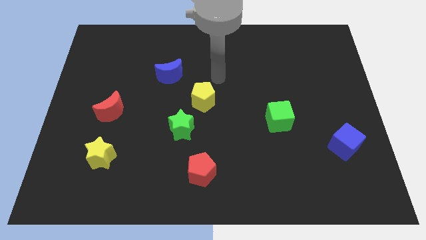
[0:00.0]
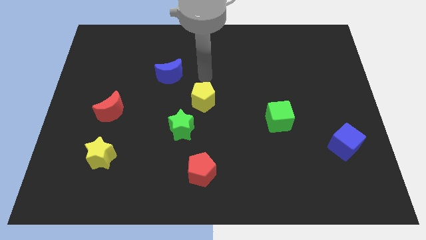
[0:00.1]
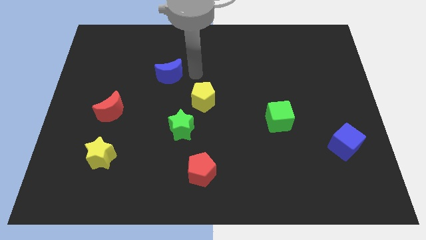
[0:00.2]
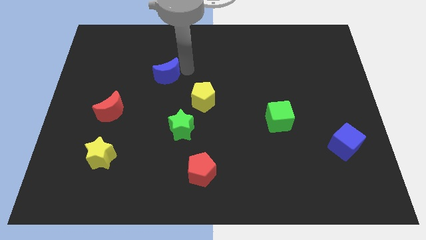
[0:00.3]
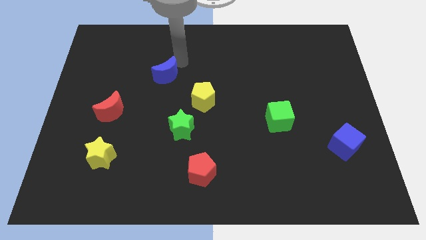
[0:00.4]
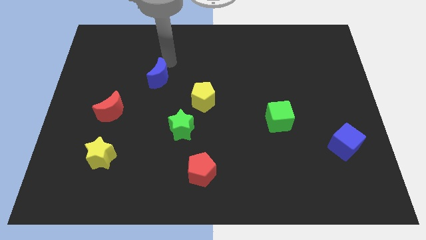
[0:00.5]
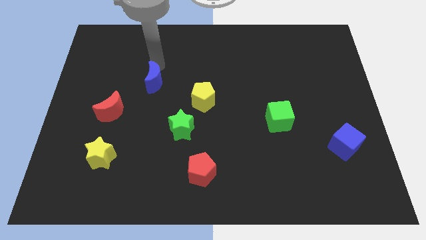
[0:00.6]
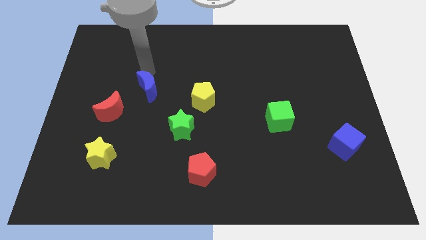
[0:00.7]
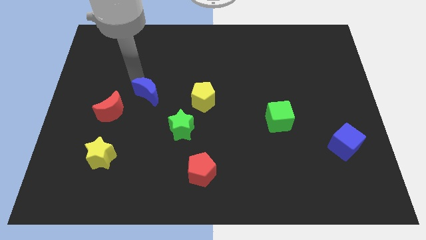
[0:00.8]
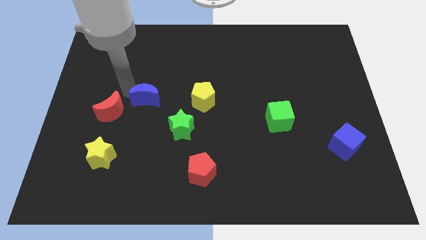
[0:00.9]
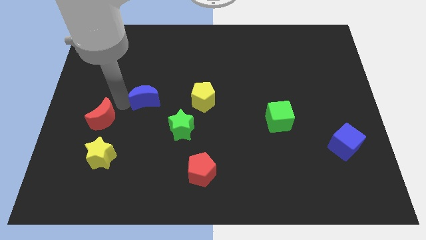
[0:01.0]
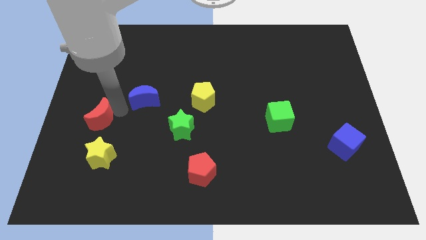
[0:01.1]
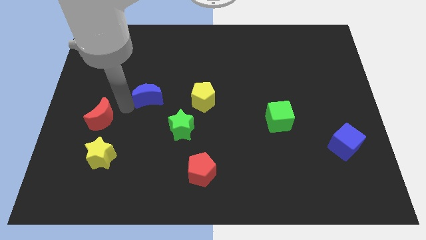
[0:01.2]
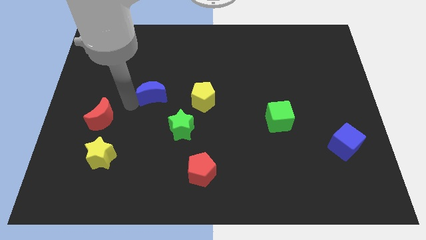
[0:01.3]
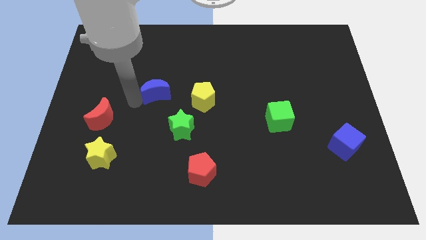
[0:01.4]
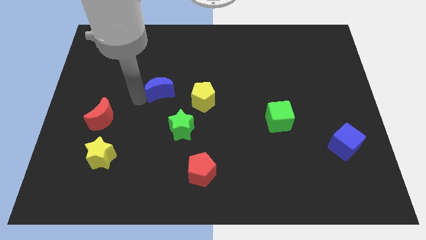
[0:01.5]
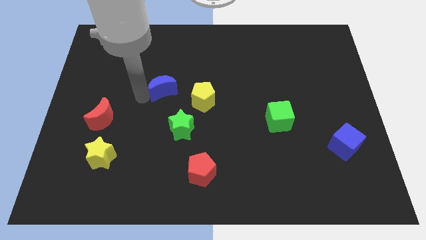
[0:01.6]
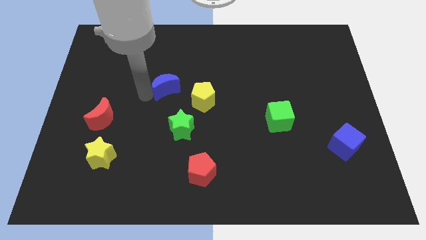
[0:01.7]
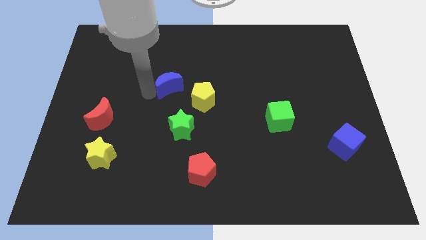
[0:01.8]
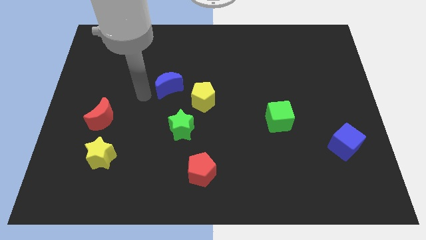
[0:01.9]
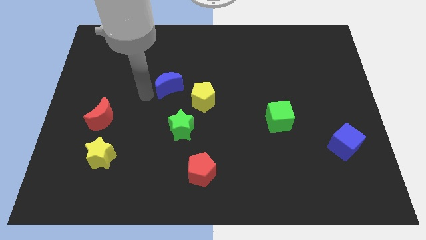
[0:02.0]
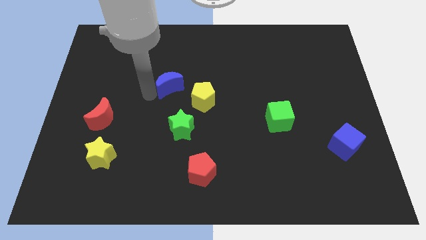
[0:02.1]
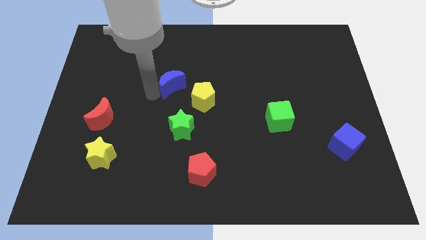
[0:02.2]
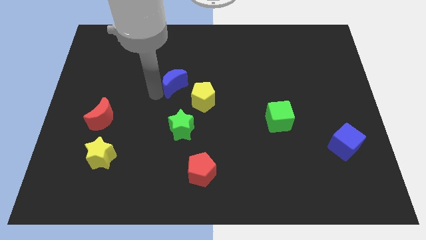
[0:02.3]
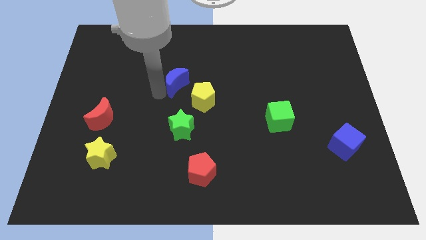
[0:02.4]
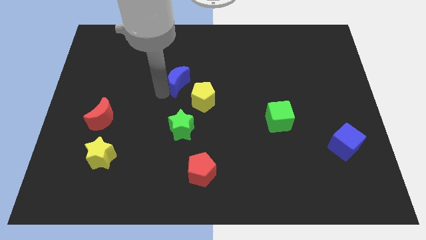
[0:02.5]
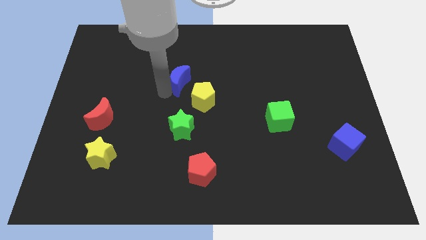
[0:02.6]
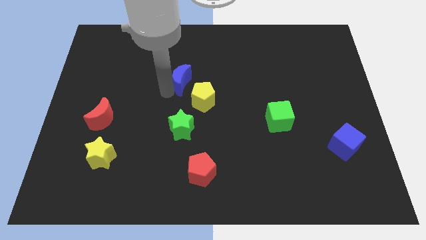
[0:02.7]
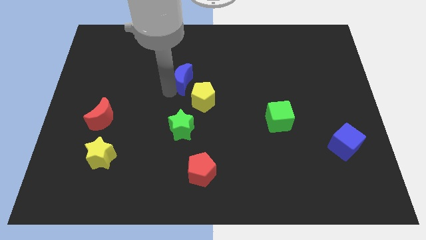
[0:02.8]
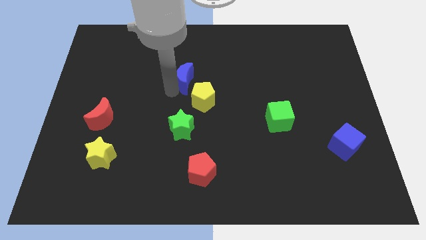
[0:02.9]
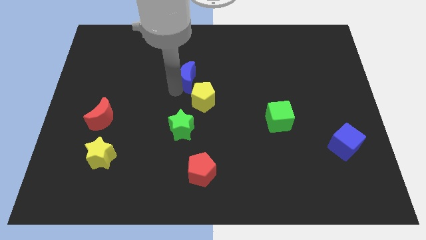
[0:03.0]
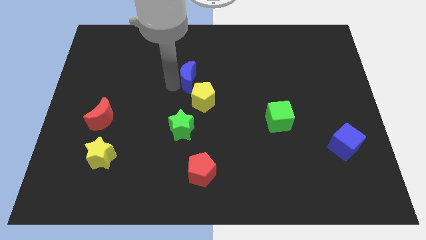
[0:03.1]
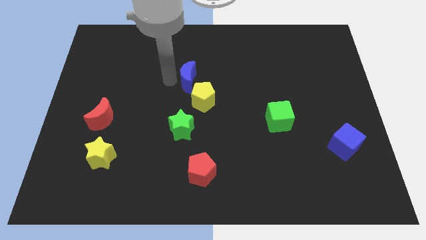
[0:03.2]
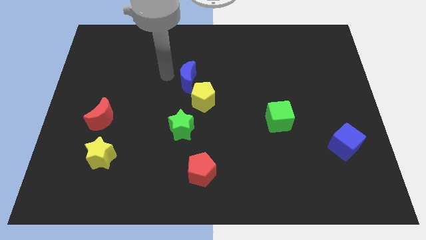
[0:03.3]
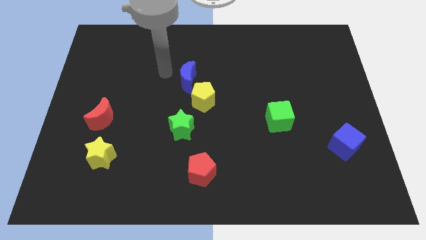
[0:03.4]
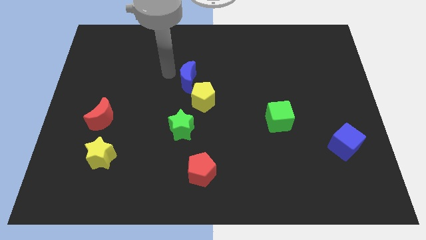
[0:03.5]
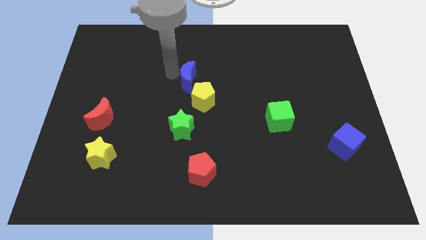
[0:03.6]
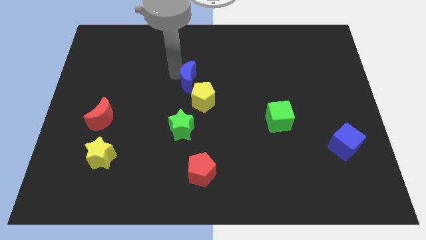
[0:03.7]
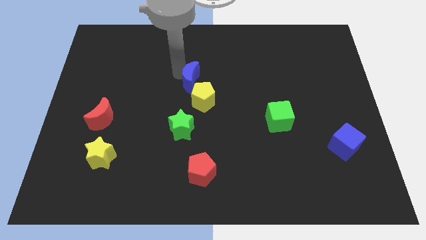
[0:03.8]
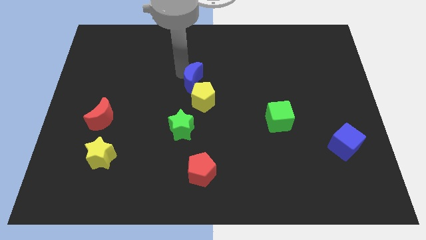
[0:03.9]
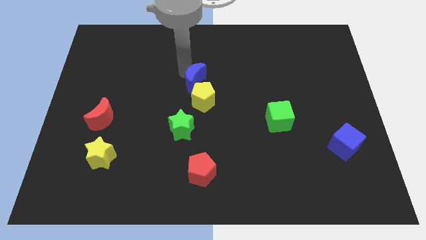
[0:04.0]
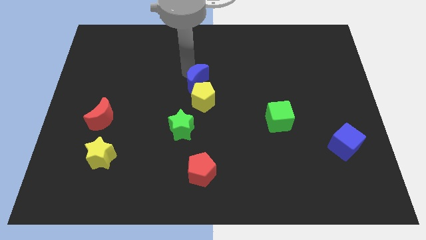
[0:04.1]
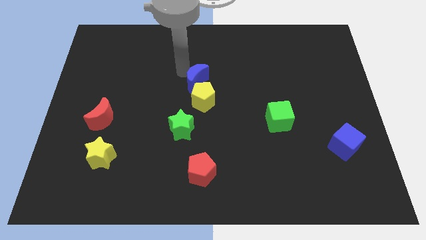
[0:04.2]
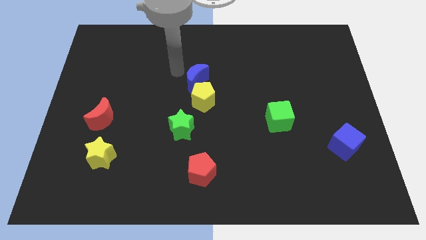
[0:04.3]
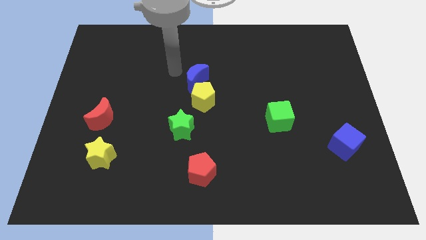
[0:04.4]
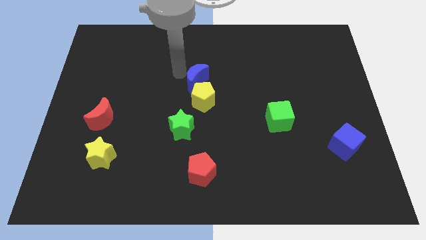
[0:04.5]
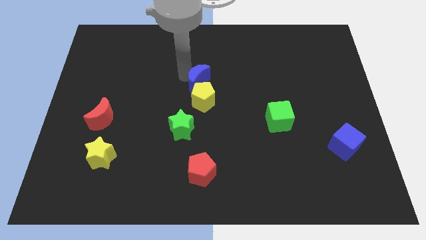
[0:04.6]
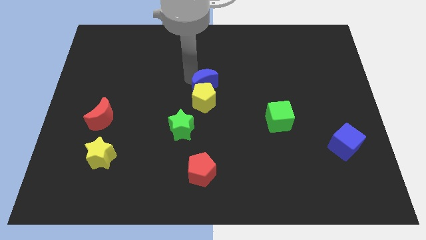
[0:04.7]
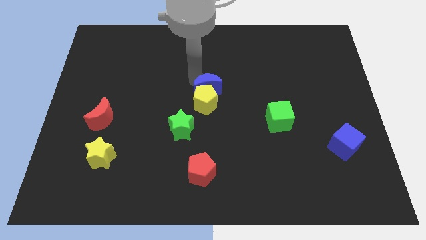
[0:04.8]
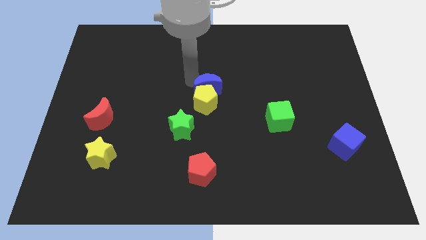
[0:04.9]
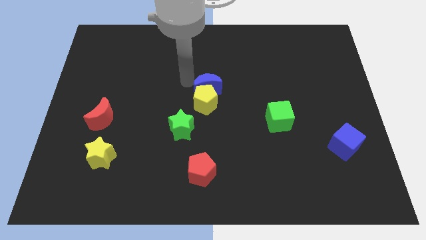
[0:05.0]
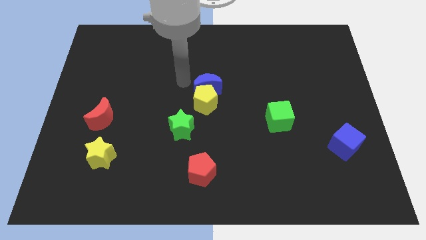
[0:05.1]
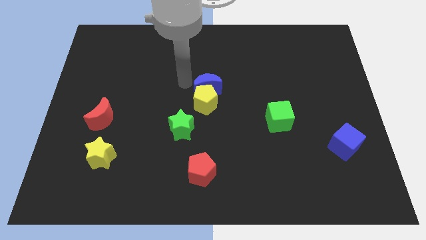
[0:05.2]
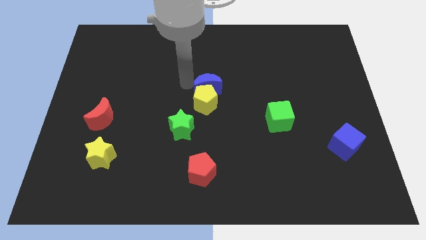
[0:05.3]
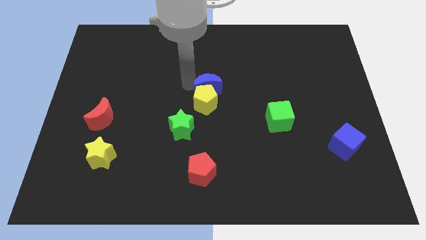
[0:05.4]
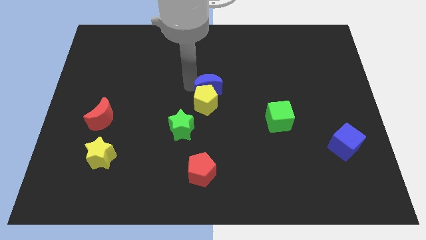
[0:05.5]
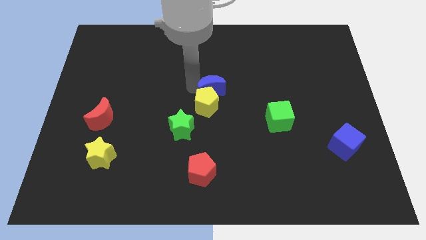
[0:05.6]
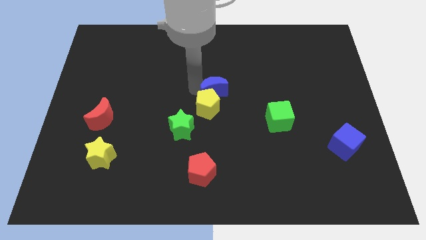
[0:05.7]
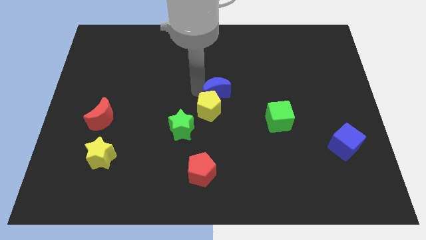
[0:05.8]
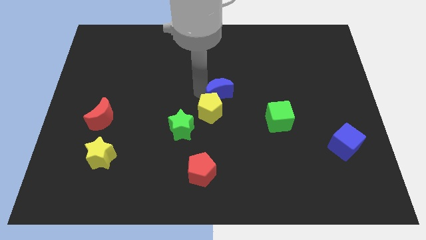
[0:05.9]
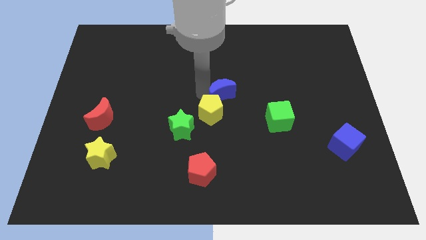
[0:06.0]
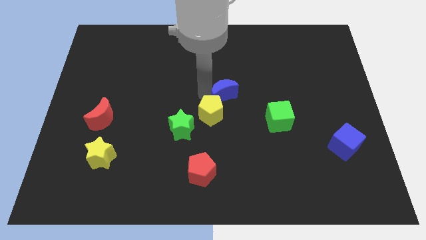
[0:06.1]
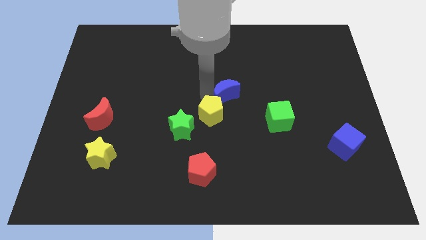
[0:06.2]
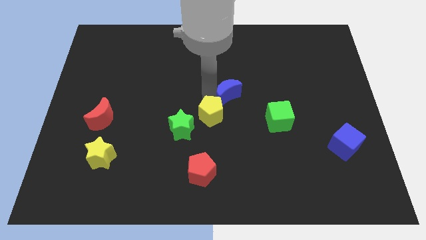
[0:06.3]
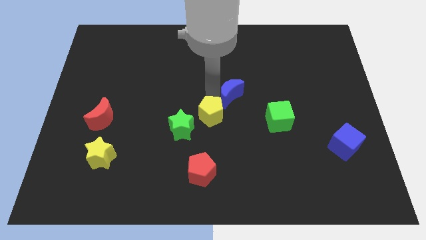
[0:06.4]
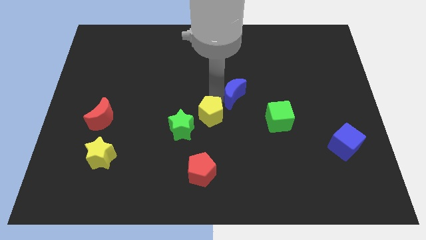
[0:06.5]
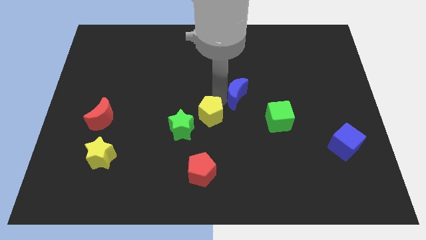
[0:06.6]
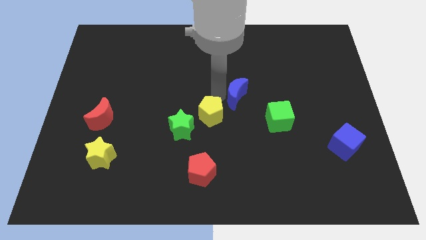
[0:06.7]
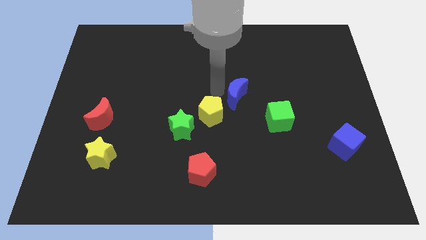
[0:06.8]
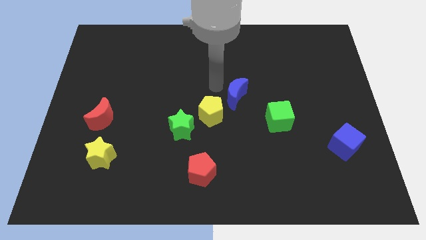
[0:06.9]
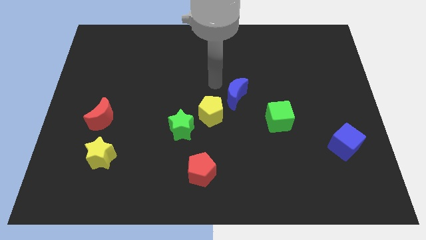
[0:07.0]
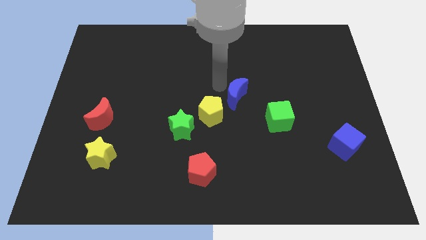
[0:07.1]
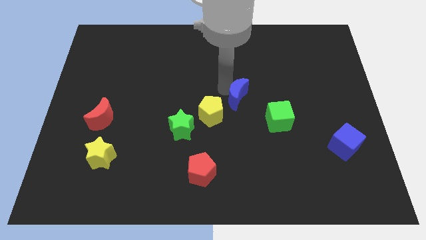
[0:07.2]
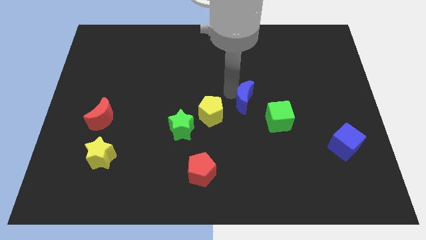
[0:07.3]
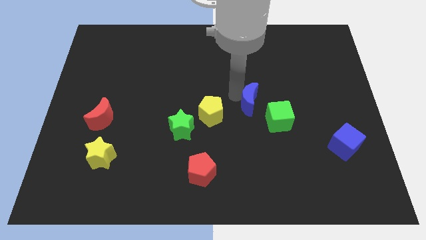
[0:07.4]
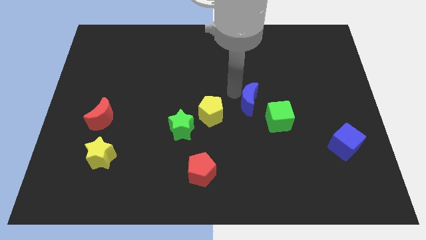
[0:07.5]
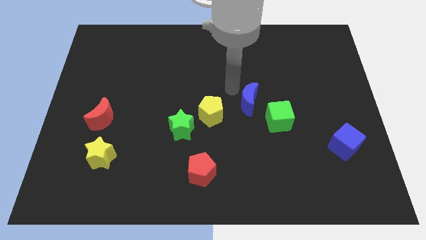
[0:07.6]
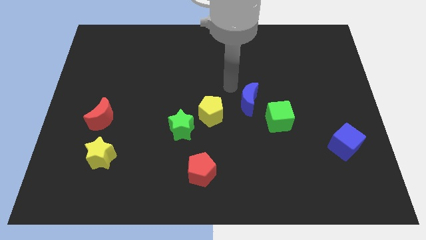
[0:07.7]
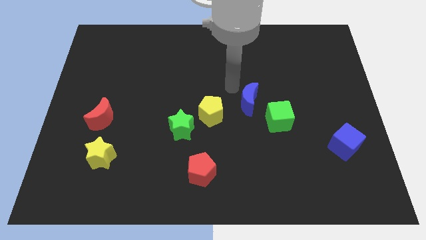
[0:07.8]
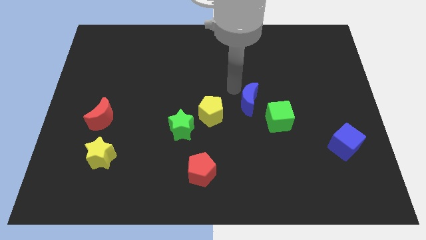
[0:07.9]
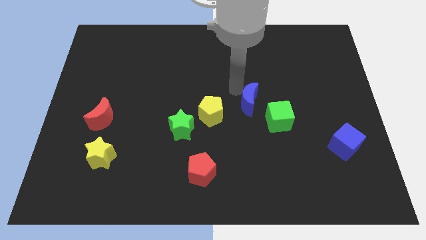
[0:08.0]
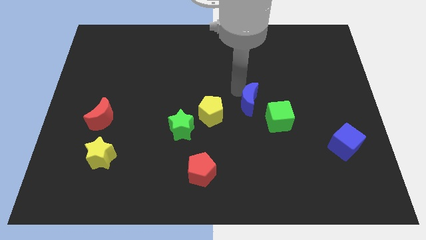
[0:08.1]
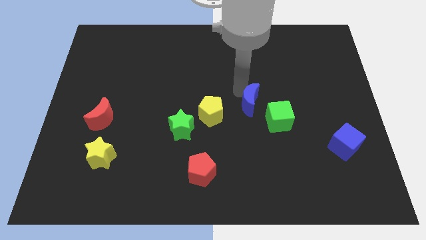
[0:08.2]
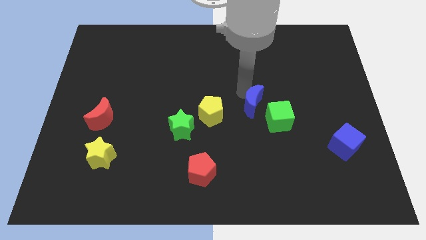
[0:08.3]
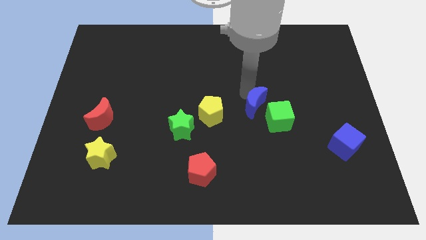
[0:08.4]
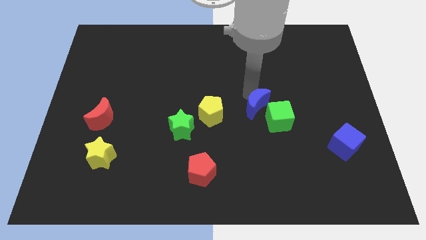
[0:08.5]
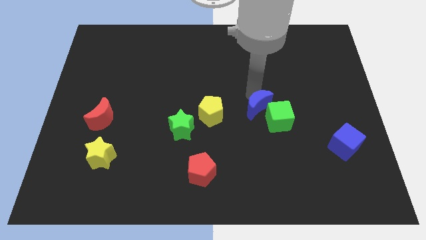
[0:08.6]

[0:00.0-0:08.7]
push the blue moon close to the green cube
